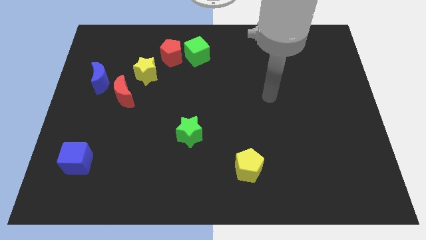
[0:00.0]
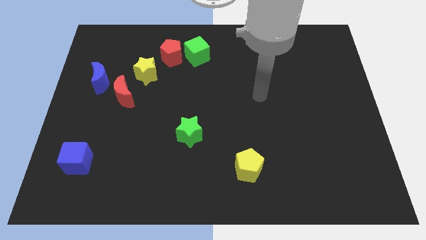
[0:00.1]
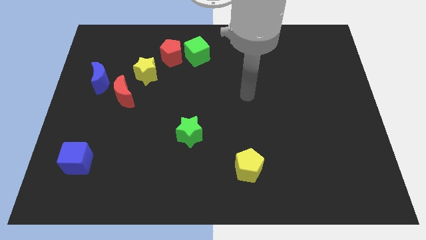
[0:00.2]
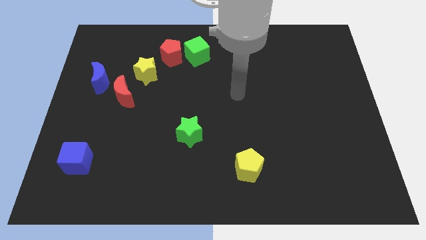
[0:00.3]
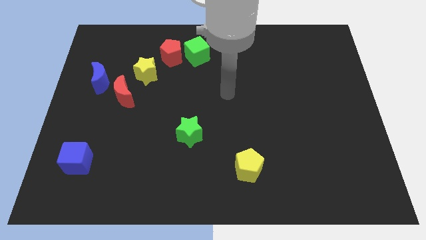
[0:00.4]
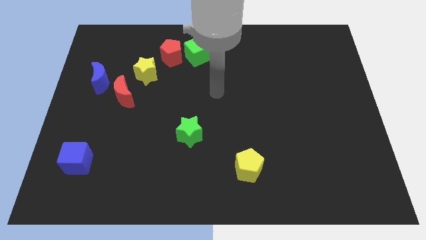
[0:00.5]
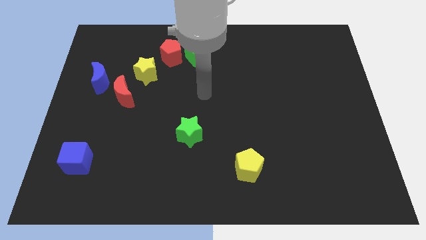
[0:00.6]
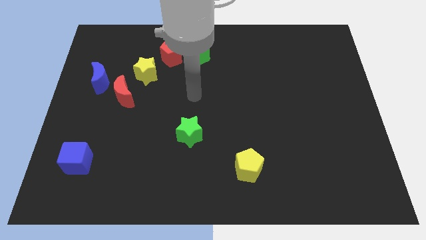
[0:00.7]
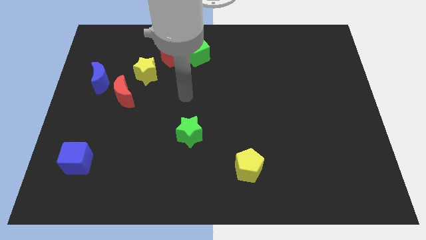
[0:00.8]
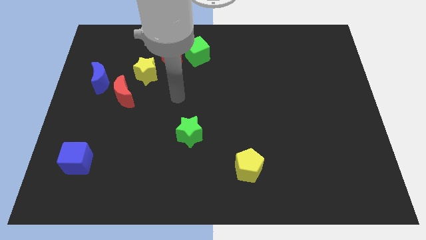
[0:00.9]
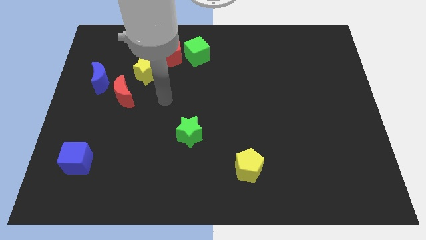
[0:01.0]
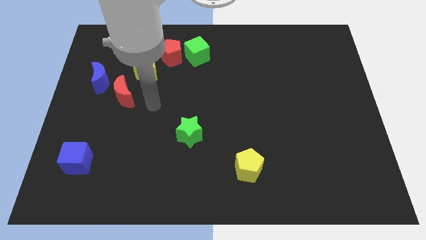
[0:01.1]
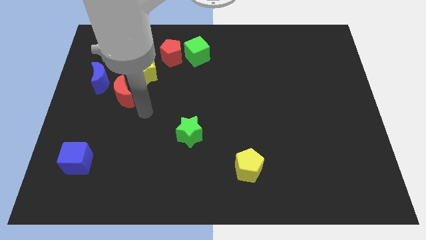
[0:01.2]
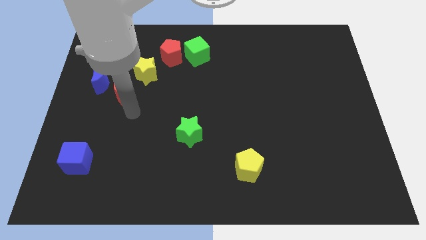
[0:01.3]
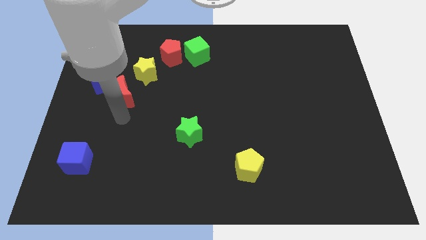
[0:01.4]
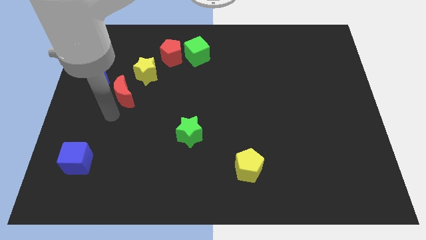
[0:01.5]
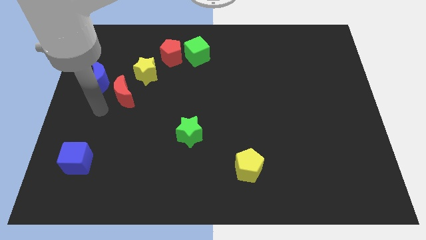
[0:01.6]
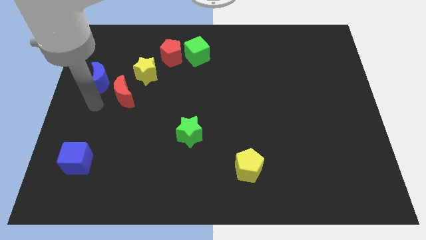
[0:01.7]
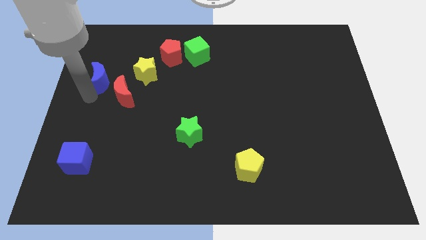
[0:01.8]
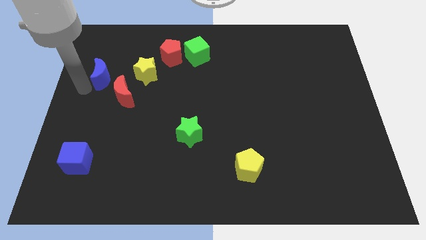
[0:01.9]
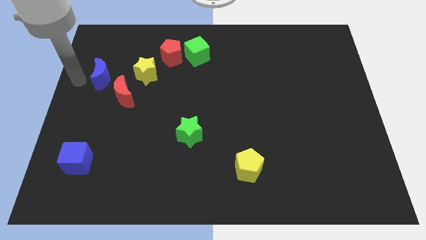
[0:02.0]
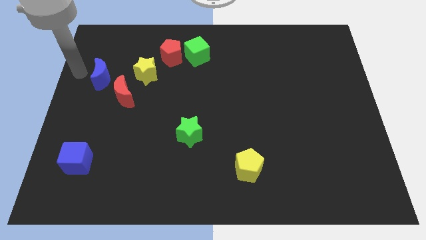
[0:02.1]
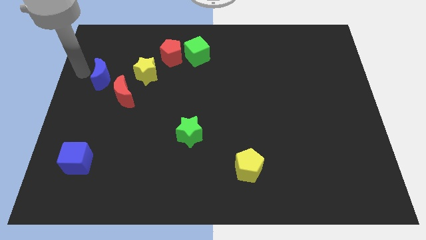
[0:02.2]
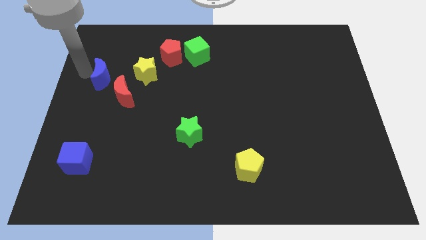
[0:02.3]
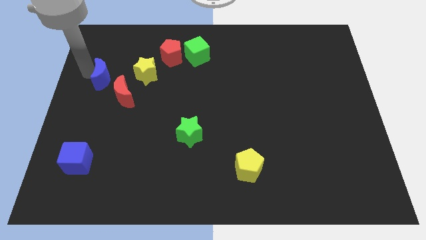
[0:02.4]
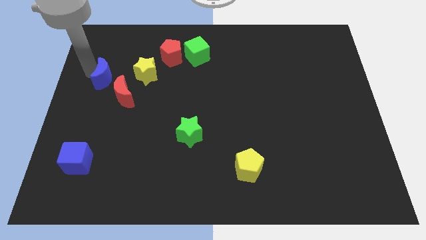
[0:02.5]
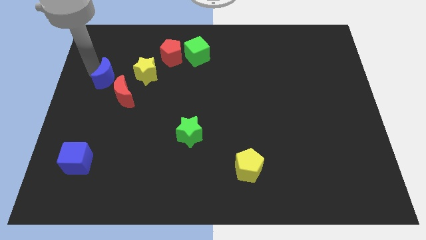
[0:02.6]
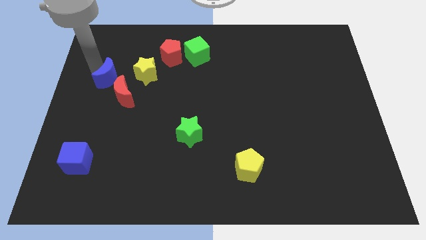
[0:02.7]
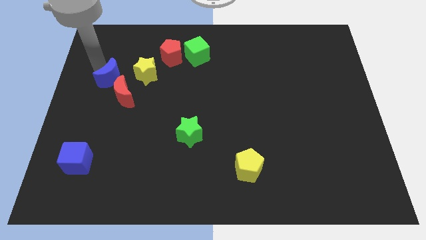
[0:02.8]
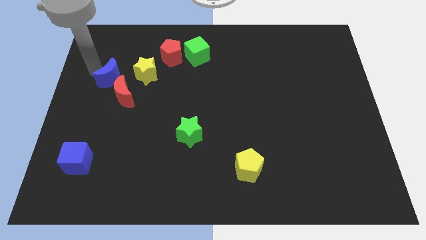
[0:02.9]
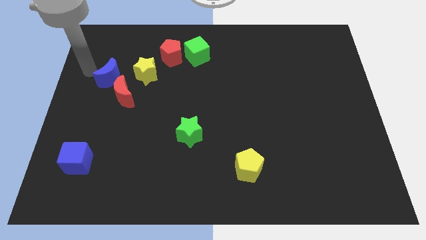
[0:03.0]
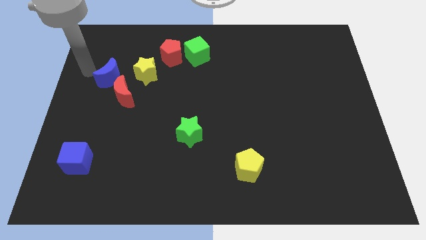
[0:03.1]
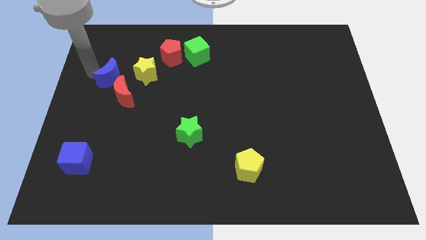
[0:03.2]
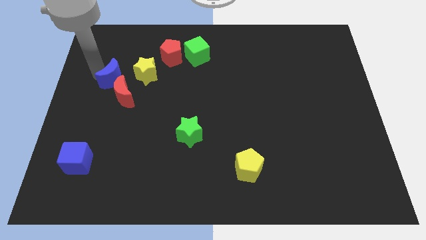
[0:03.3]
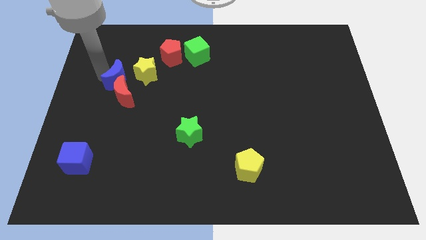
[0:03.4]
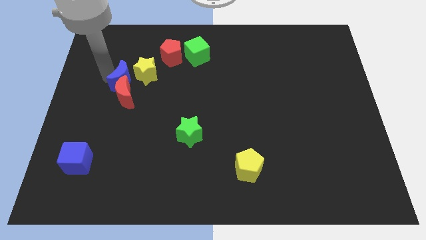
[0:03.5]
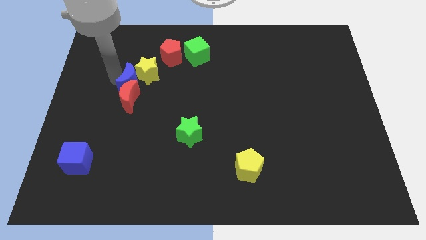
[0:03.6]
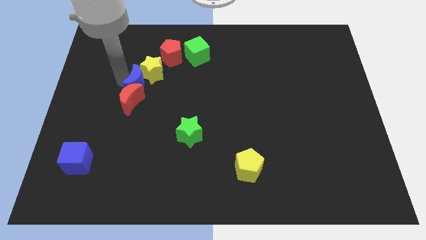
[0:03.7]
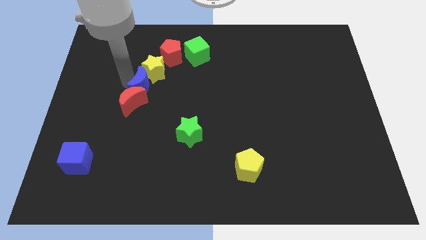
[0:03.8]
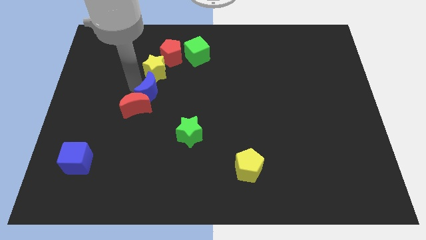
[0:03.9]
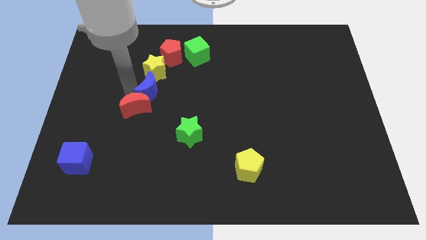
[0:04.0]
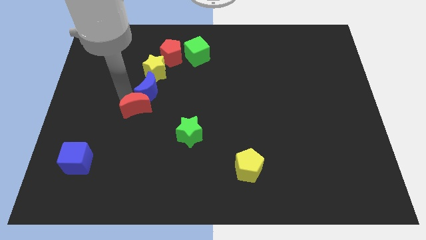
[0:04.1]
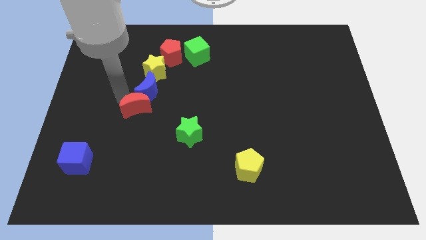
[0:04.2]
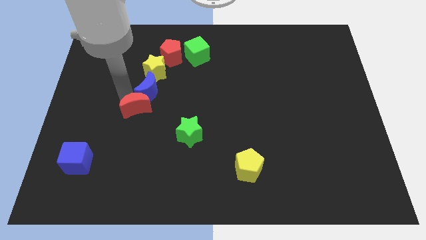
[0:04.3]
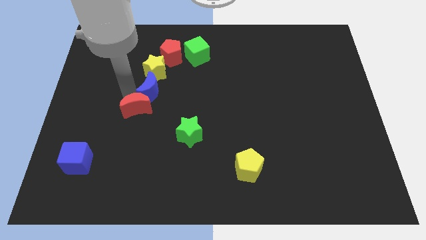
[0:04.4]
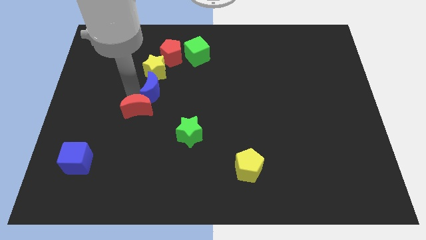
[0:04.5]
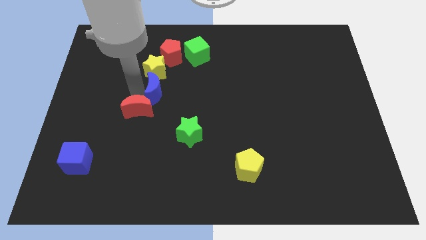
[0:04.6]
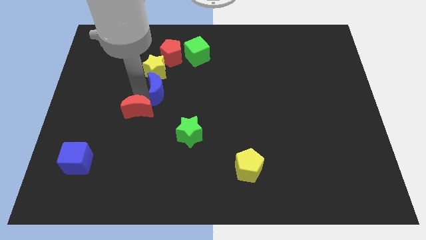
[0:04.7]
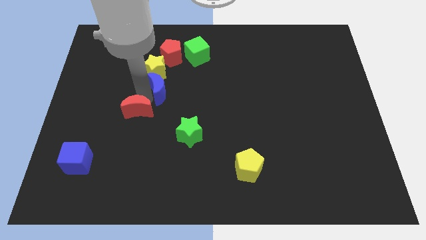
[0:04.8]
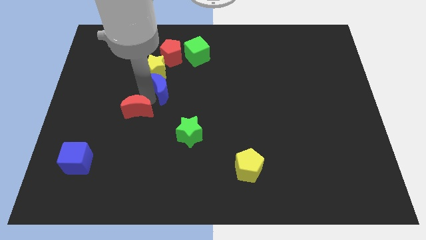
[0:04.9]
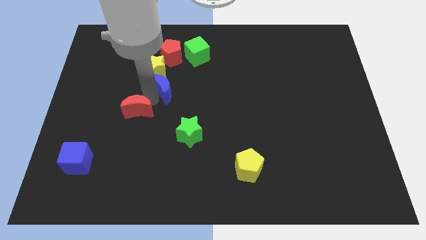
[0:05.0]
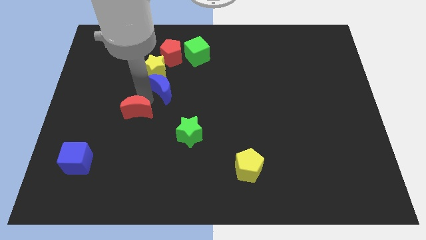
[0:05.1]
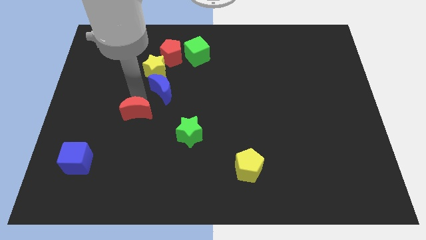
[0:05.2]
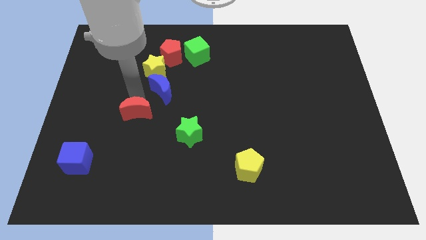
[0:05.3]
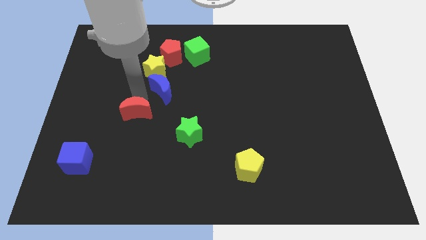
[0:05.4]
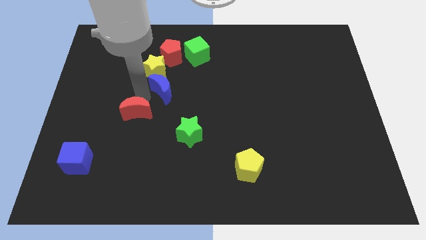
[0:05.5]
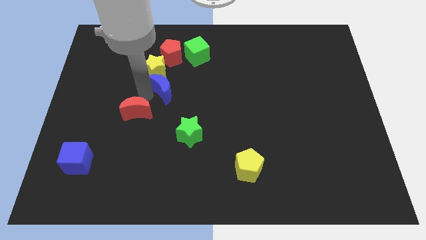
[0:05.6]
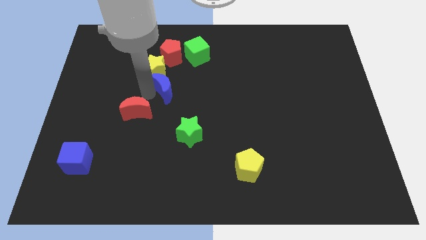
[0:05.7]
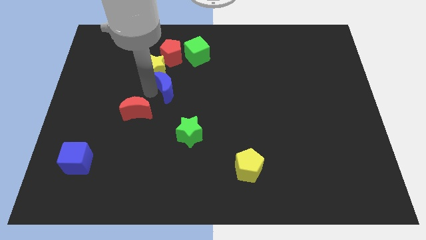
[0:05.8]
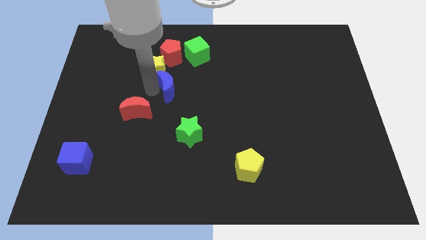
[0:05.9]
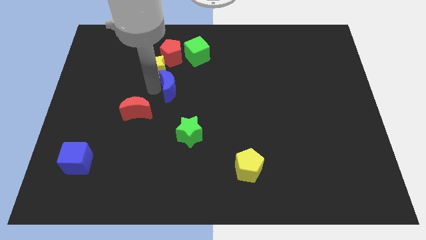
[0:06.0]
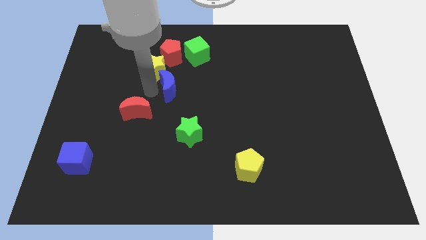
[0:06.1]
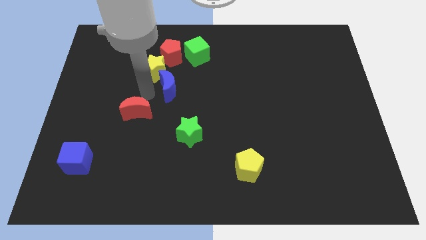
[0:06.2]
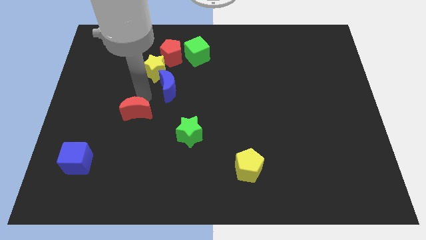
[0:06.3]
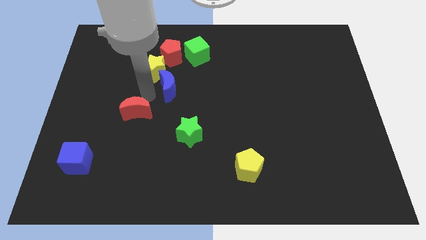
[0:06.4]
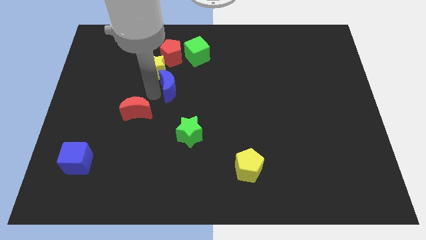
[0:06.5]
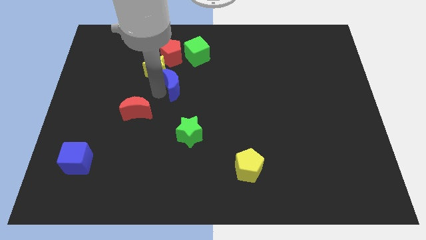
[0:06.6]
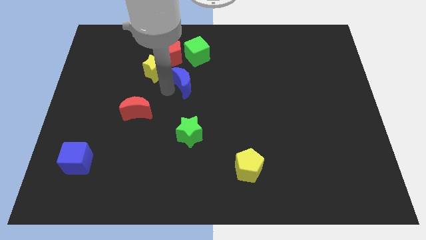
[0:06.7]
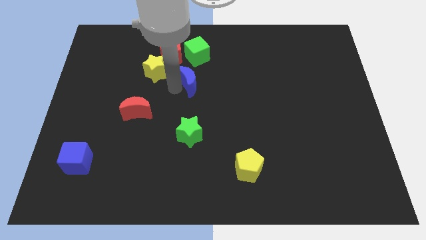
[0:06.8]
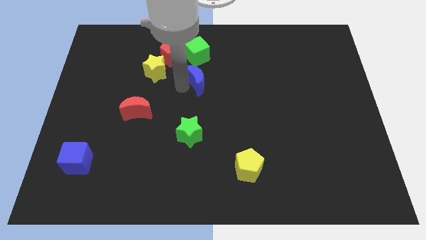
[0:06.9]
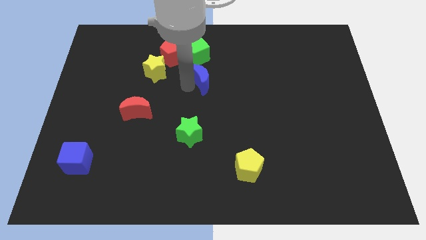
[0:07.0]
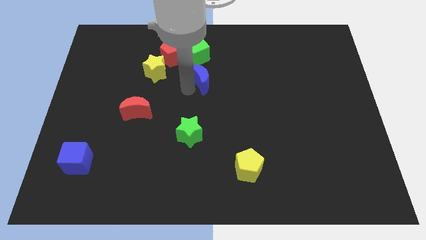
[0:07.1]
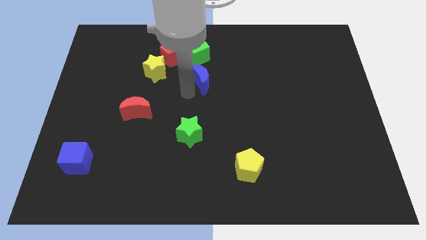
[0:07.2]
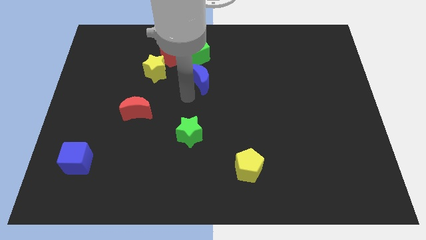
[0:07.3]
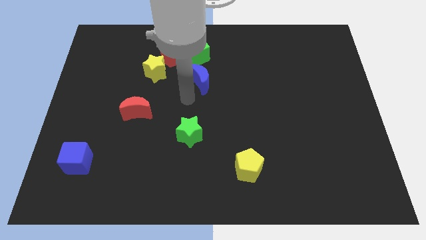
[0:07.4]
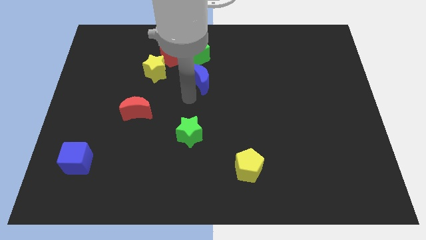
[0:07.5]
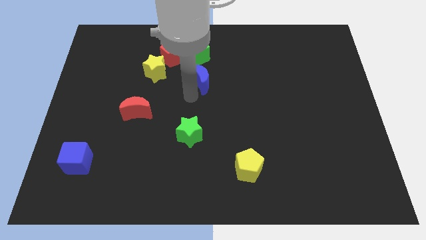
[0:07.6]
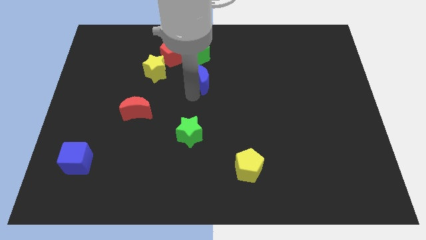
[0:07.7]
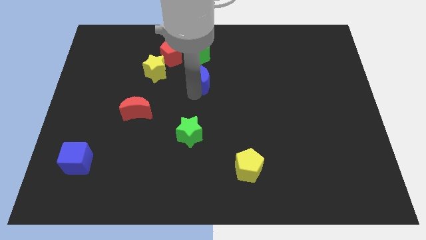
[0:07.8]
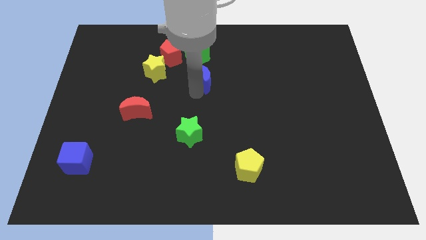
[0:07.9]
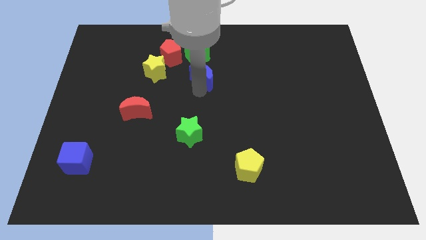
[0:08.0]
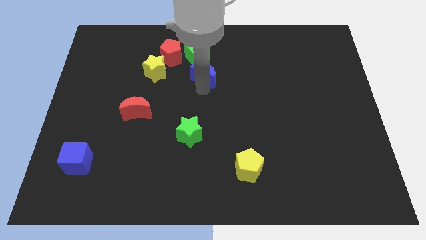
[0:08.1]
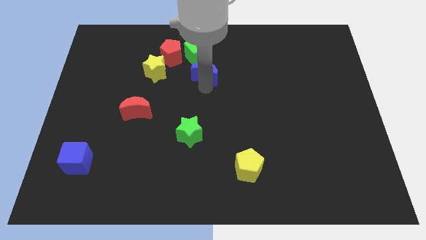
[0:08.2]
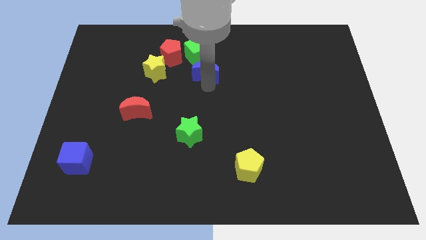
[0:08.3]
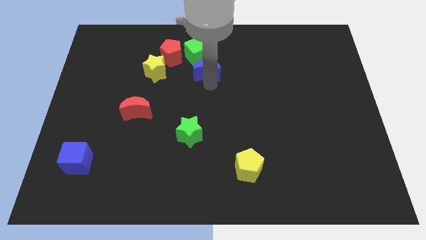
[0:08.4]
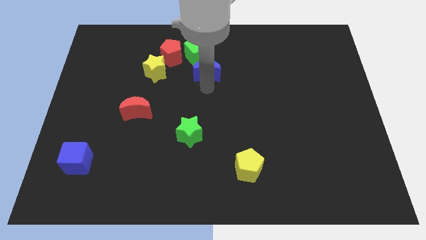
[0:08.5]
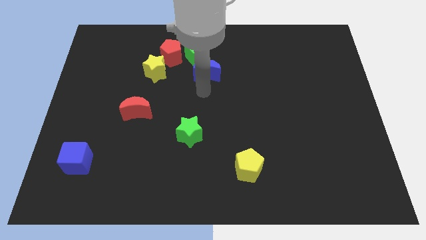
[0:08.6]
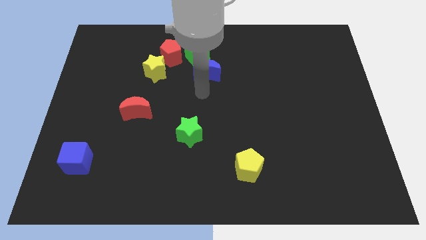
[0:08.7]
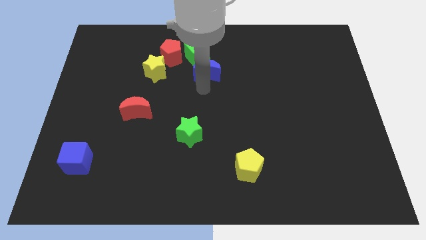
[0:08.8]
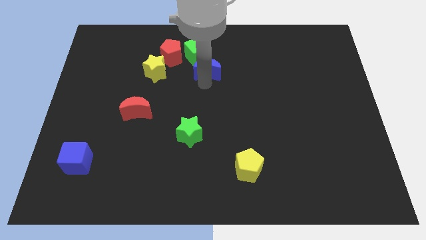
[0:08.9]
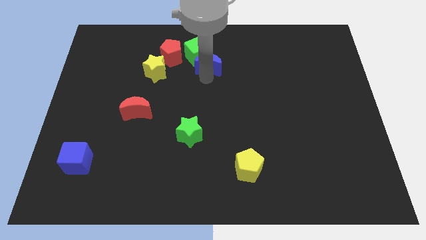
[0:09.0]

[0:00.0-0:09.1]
push the blue moon right of the red pentagon
